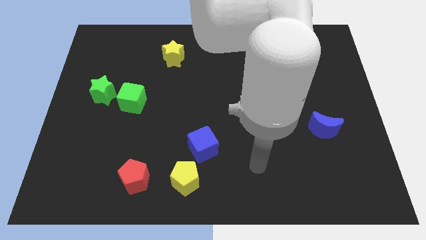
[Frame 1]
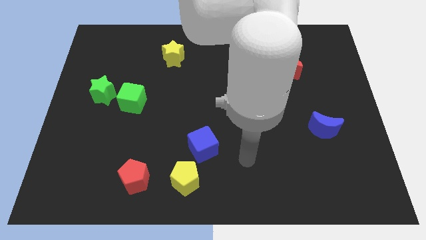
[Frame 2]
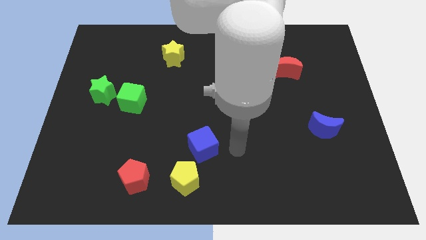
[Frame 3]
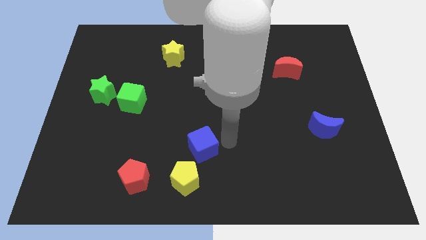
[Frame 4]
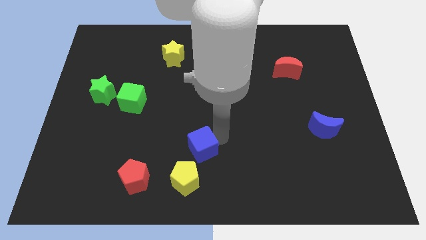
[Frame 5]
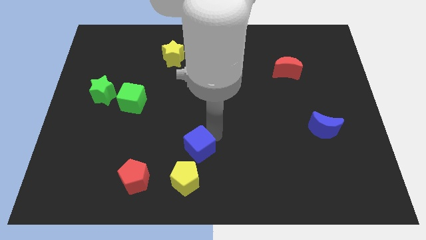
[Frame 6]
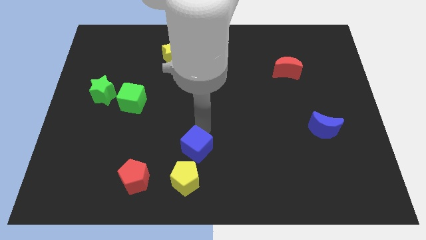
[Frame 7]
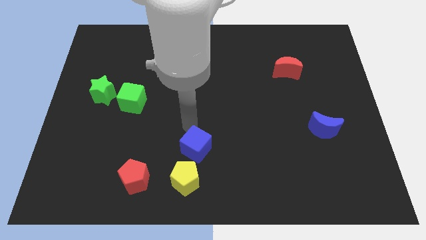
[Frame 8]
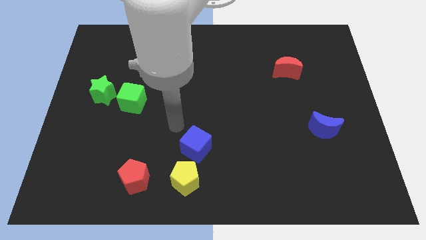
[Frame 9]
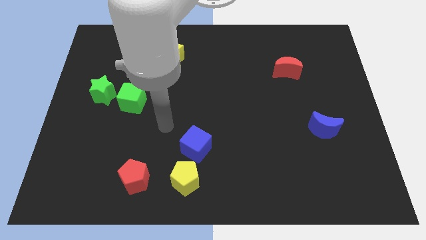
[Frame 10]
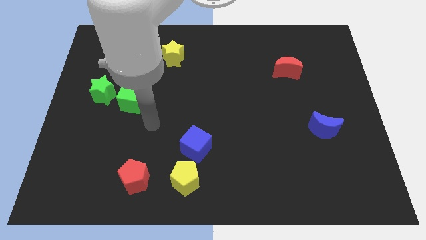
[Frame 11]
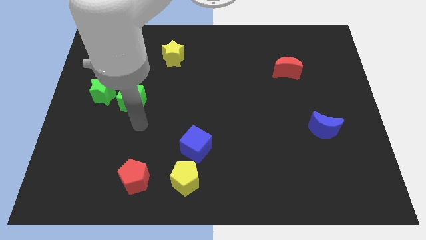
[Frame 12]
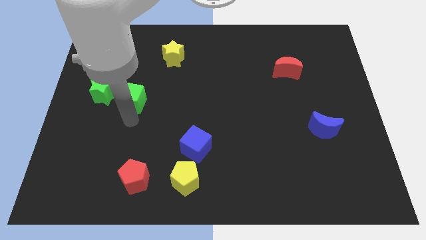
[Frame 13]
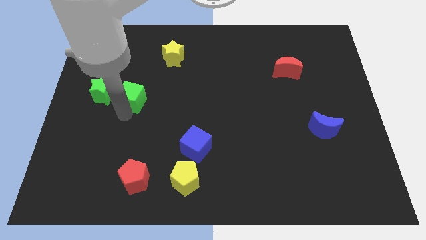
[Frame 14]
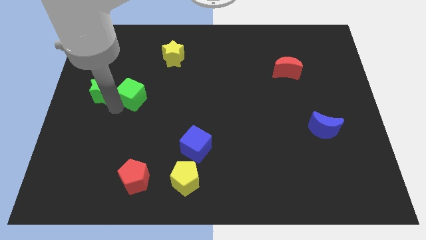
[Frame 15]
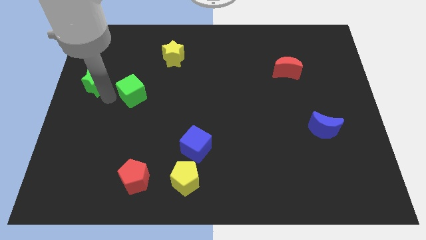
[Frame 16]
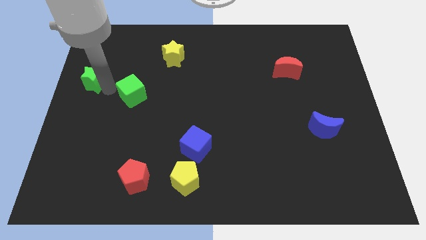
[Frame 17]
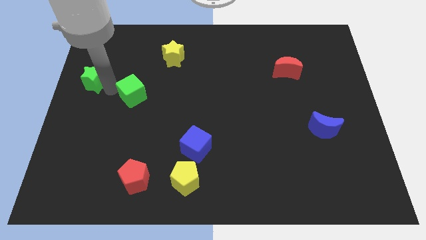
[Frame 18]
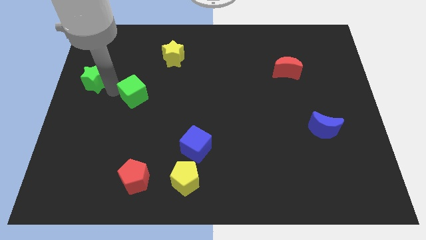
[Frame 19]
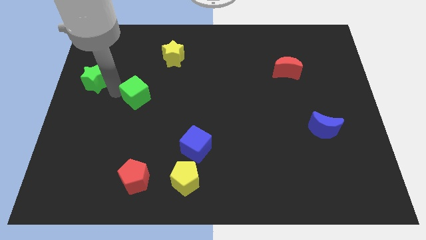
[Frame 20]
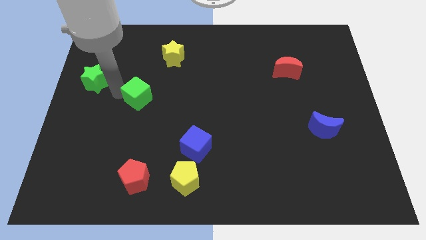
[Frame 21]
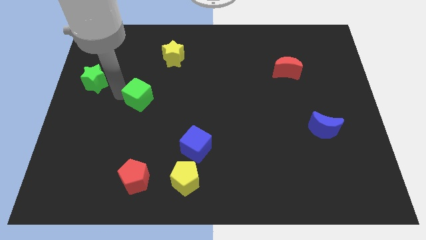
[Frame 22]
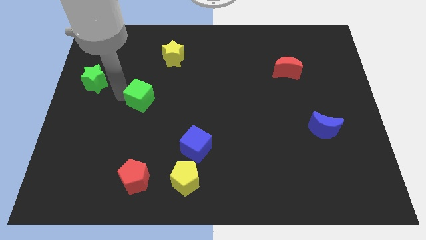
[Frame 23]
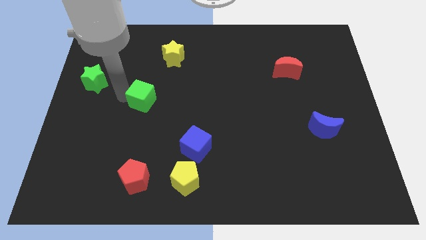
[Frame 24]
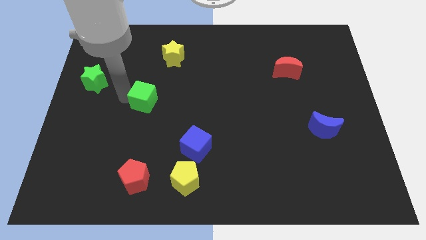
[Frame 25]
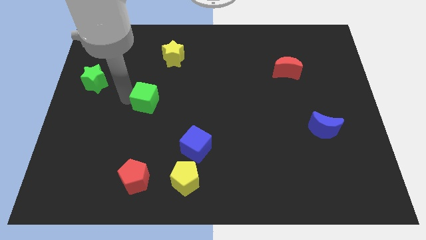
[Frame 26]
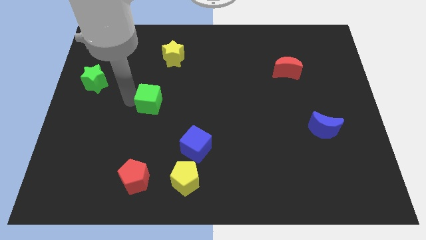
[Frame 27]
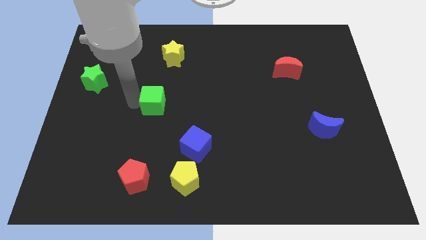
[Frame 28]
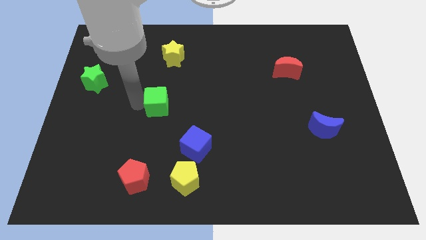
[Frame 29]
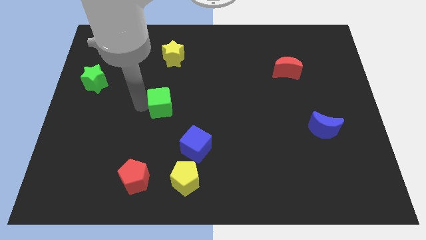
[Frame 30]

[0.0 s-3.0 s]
move the green cube right a little

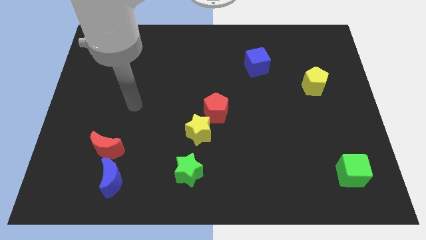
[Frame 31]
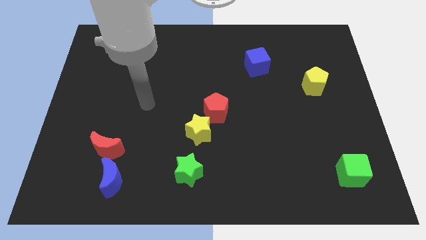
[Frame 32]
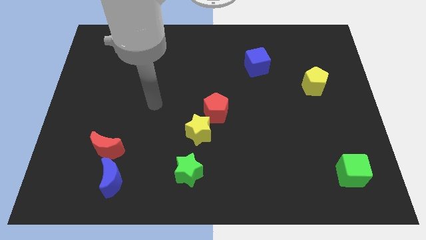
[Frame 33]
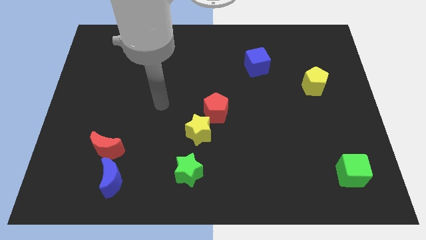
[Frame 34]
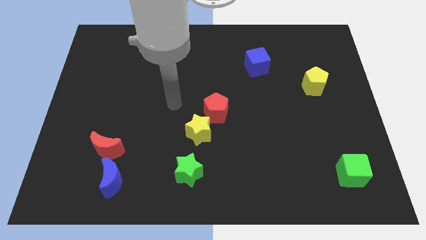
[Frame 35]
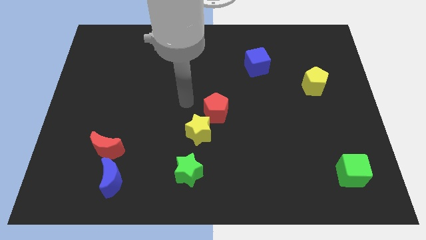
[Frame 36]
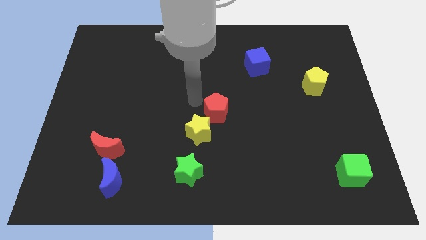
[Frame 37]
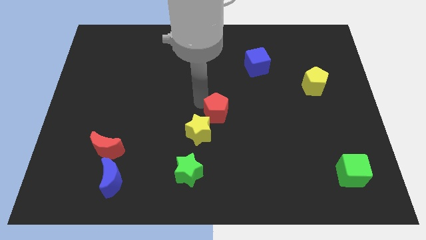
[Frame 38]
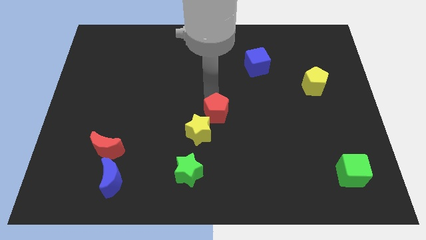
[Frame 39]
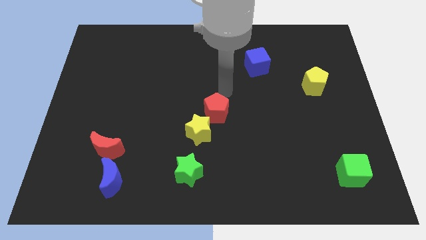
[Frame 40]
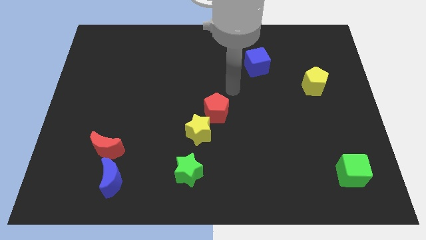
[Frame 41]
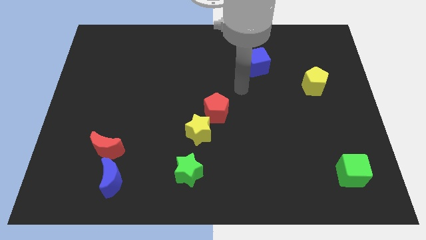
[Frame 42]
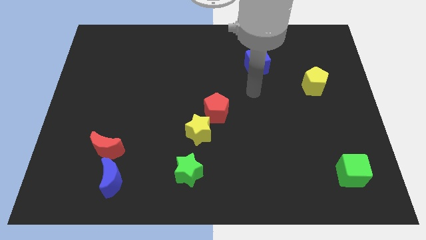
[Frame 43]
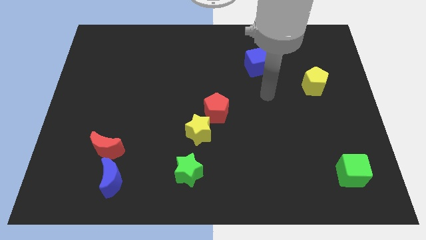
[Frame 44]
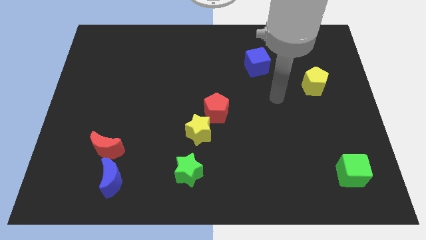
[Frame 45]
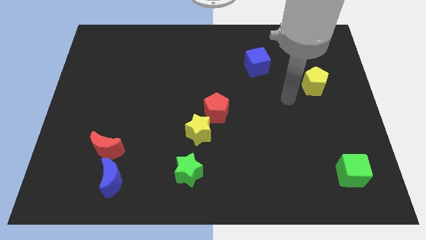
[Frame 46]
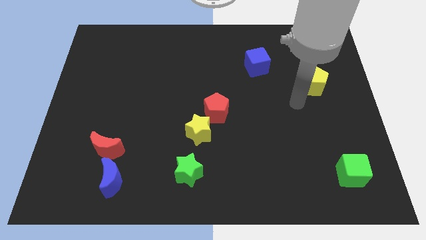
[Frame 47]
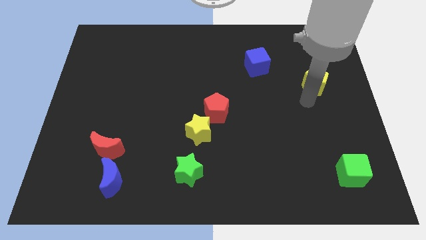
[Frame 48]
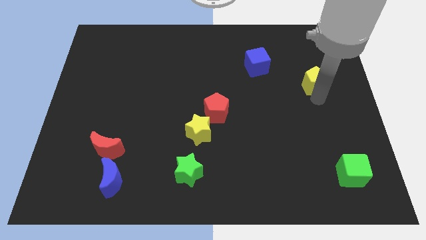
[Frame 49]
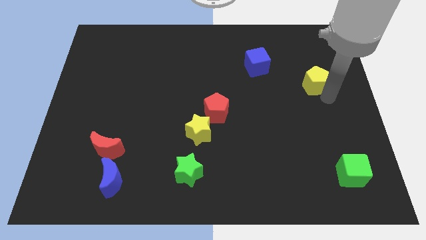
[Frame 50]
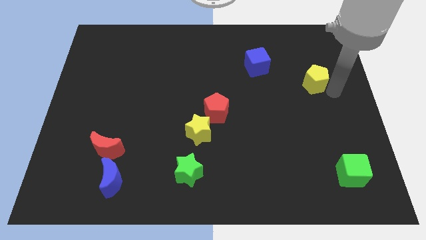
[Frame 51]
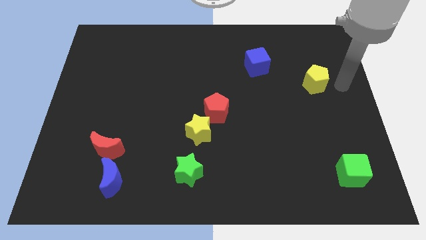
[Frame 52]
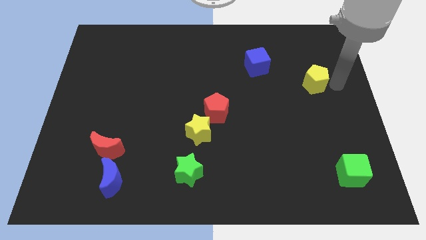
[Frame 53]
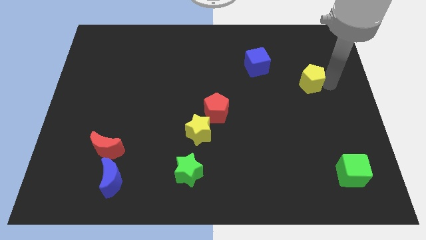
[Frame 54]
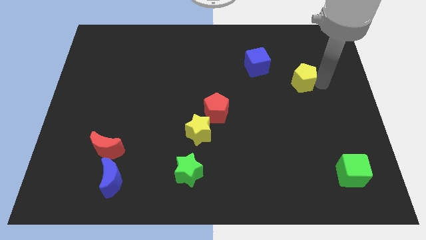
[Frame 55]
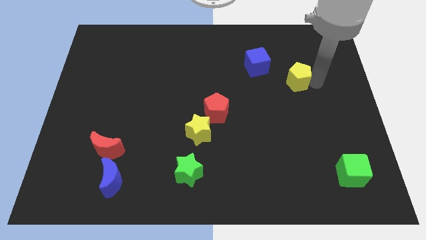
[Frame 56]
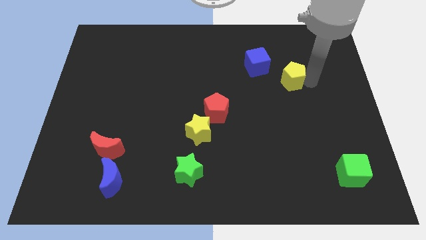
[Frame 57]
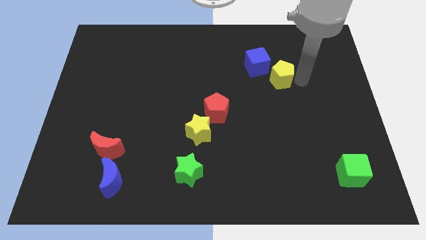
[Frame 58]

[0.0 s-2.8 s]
slightly push the yellow pentagon left

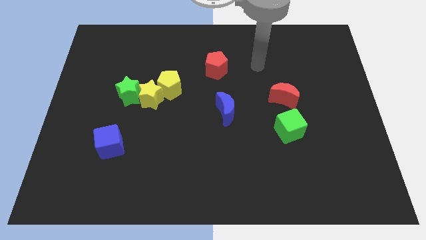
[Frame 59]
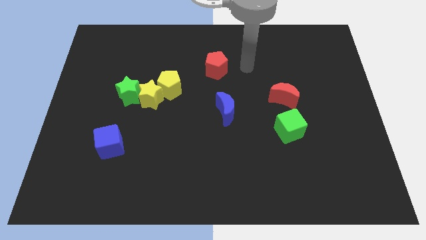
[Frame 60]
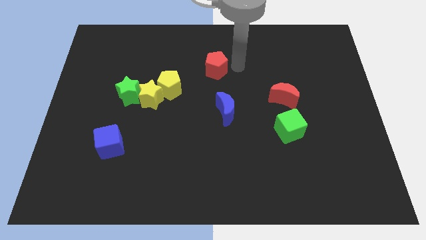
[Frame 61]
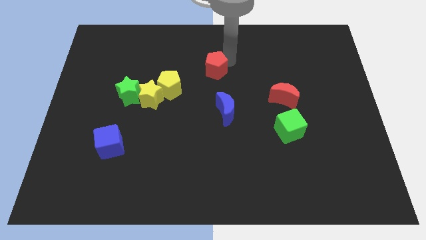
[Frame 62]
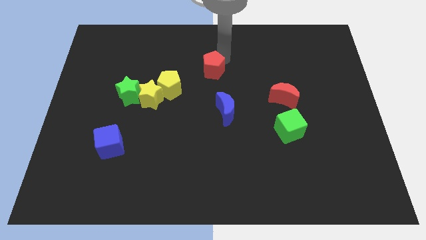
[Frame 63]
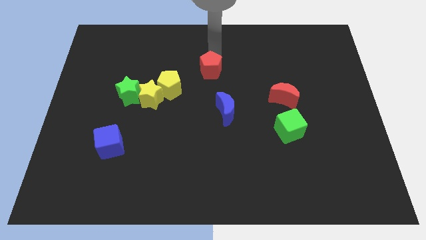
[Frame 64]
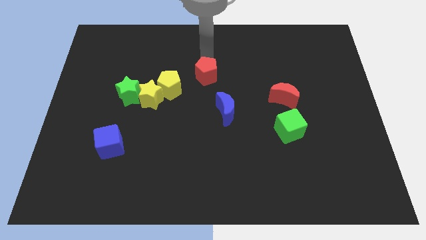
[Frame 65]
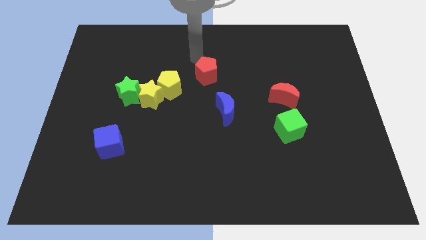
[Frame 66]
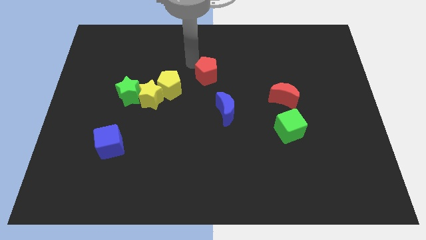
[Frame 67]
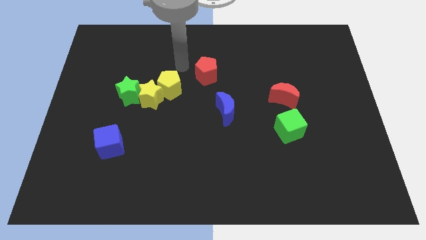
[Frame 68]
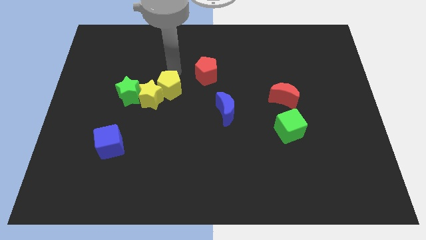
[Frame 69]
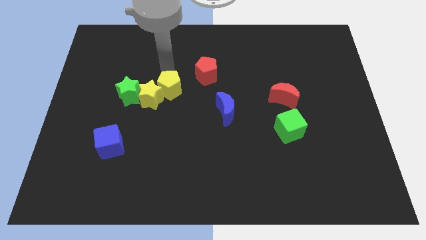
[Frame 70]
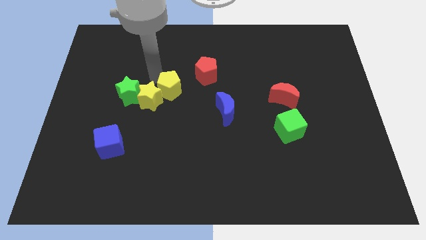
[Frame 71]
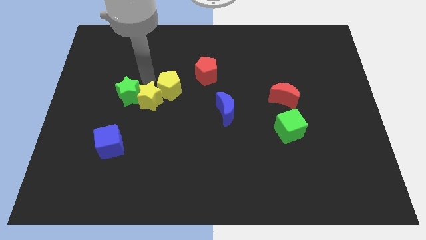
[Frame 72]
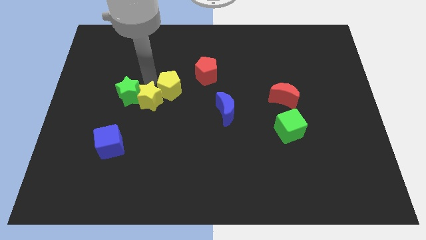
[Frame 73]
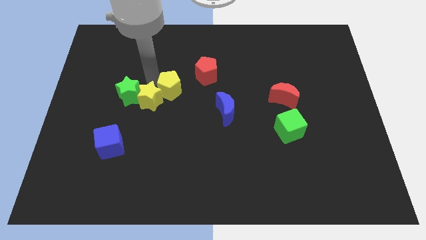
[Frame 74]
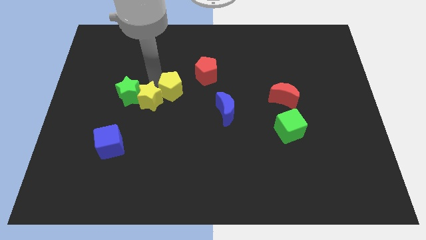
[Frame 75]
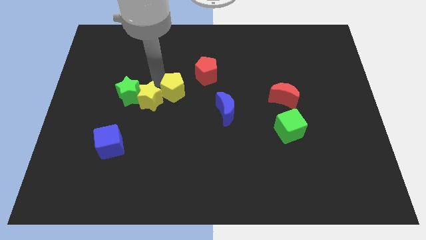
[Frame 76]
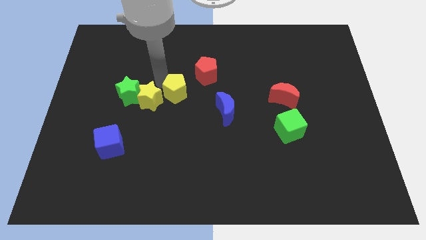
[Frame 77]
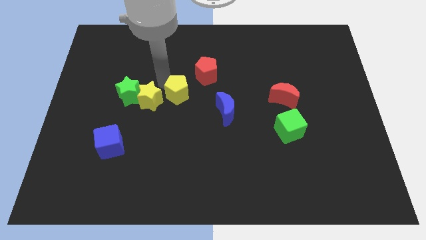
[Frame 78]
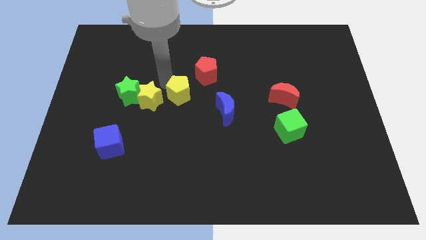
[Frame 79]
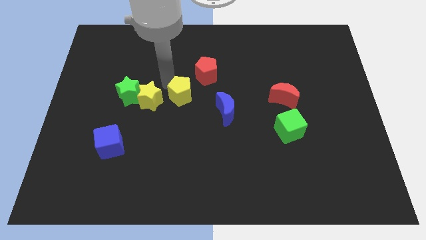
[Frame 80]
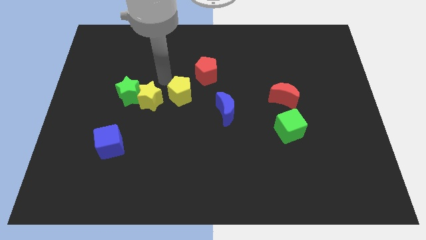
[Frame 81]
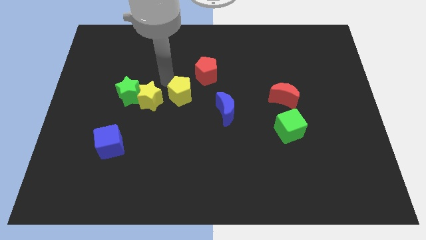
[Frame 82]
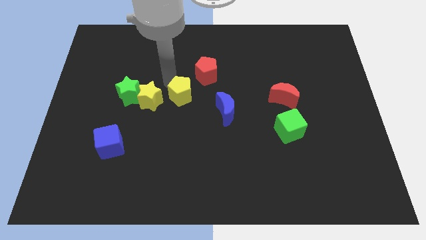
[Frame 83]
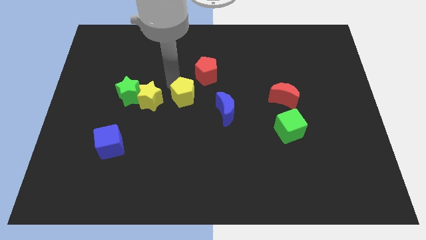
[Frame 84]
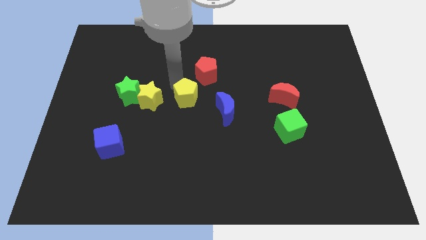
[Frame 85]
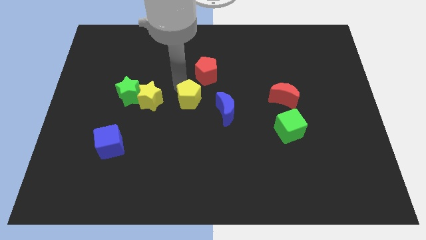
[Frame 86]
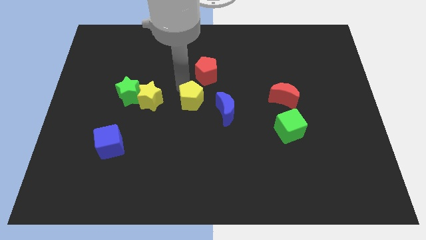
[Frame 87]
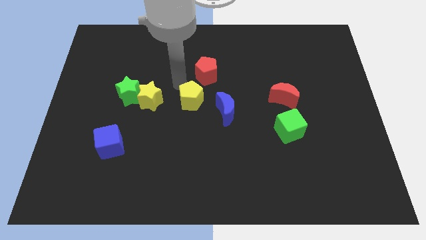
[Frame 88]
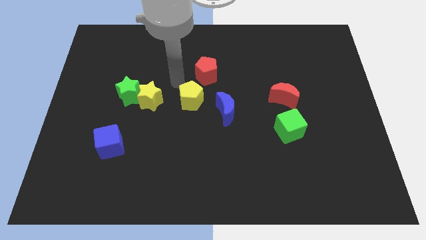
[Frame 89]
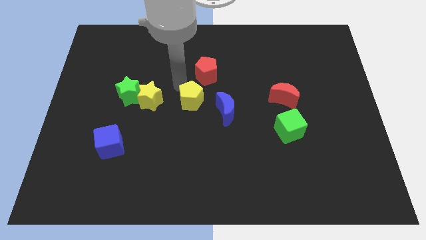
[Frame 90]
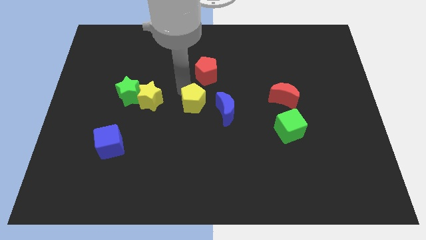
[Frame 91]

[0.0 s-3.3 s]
push the yellow pentagon a little down and then to the right
